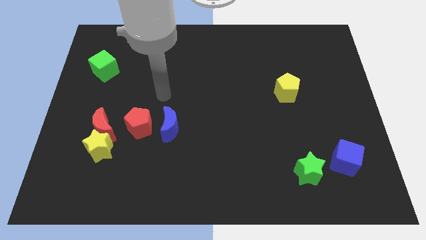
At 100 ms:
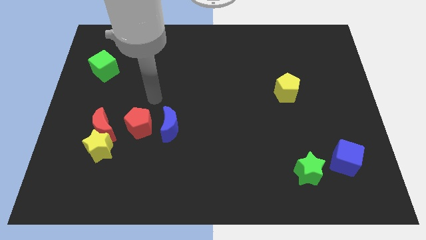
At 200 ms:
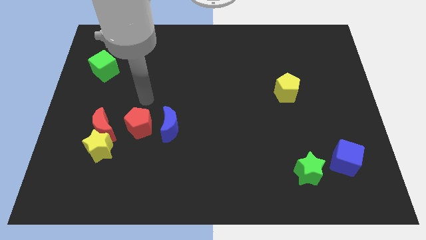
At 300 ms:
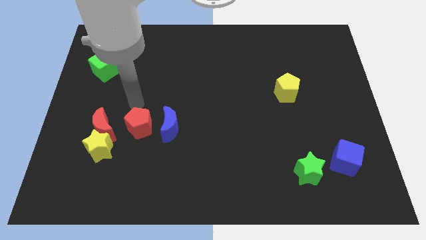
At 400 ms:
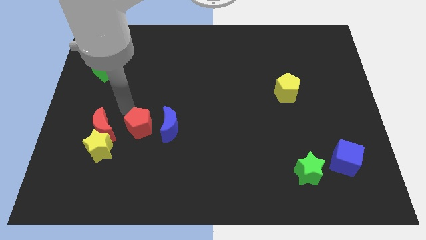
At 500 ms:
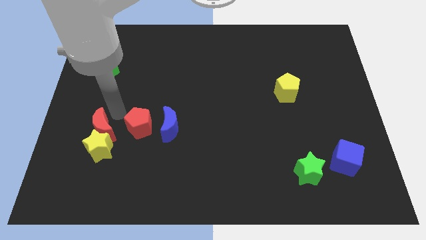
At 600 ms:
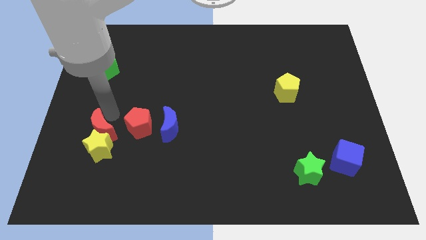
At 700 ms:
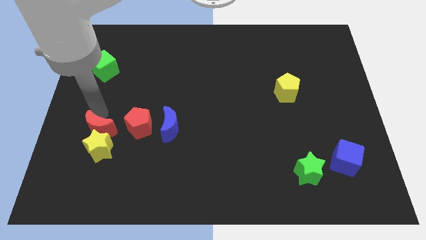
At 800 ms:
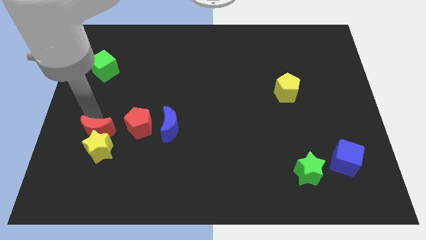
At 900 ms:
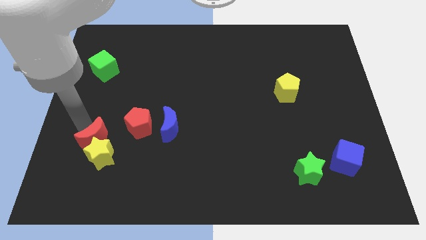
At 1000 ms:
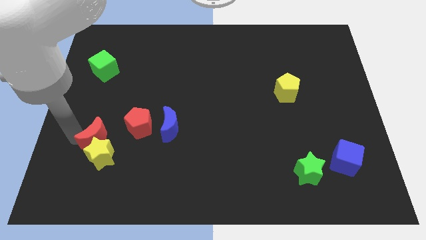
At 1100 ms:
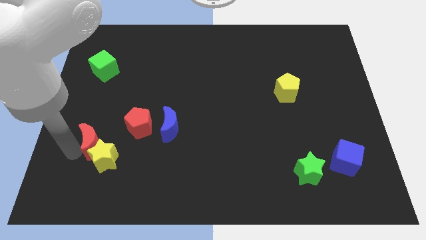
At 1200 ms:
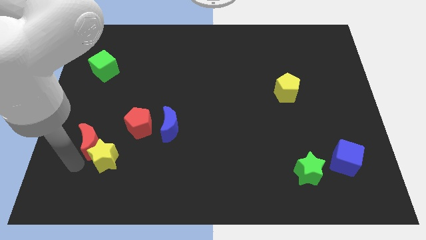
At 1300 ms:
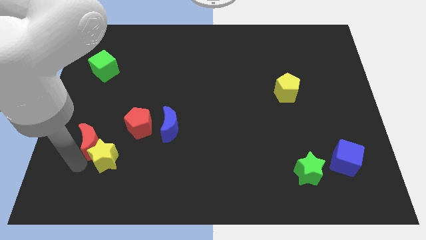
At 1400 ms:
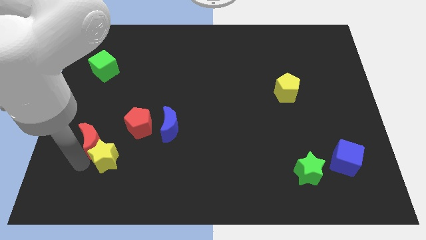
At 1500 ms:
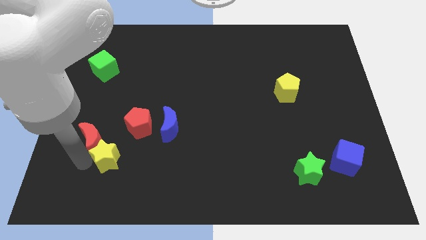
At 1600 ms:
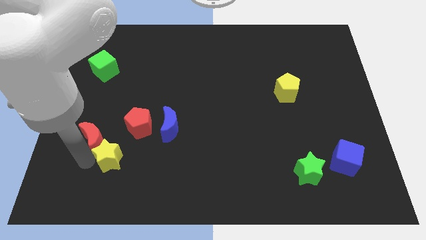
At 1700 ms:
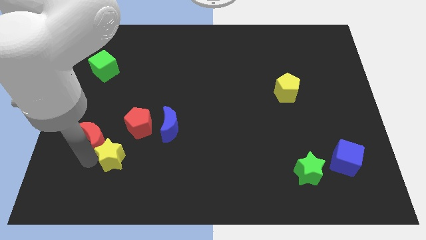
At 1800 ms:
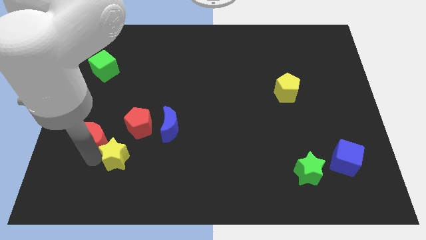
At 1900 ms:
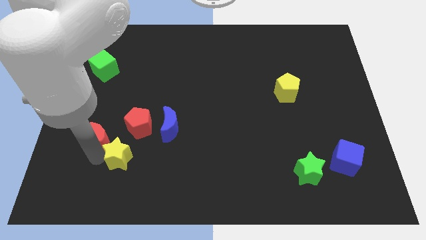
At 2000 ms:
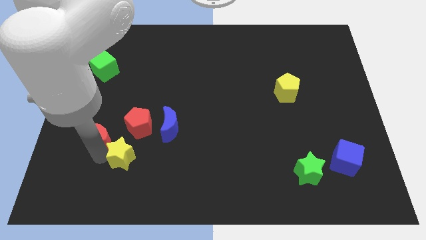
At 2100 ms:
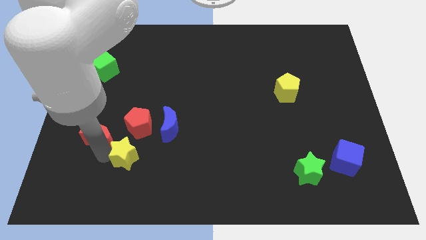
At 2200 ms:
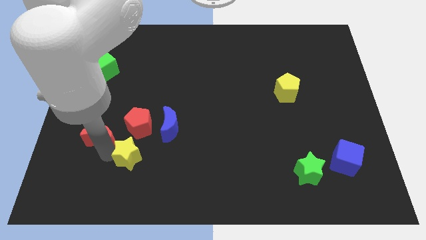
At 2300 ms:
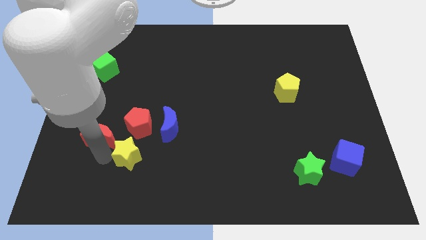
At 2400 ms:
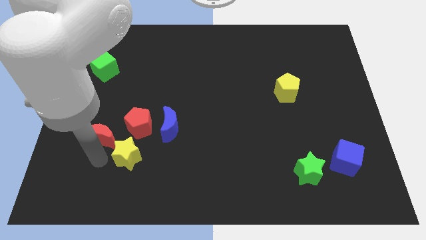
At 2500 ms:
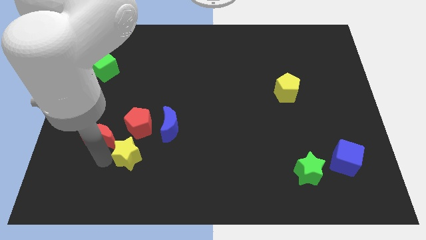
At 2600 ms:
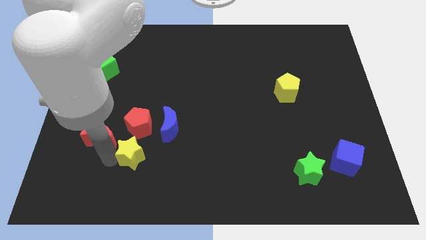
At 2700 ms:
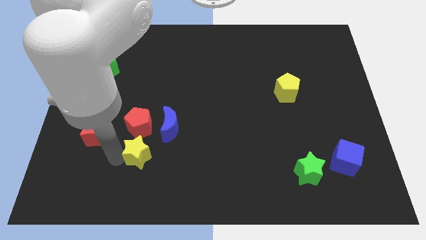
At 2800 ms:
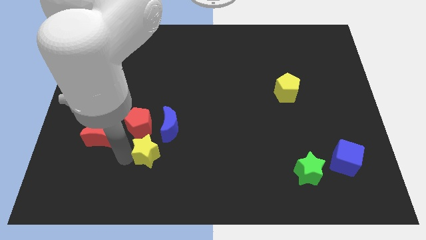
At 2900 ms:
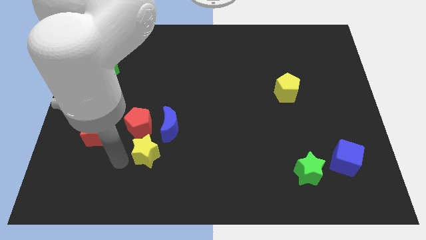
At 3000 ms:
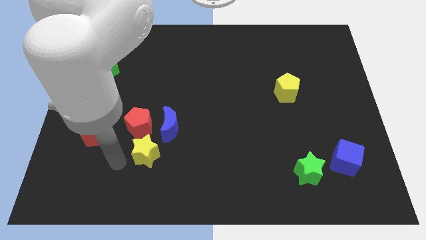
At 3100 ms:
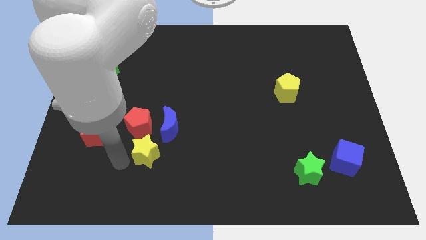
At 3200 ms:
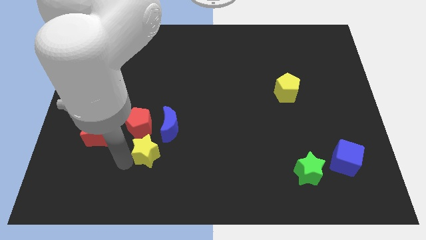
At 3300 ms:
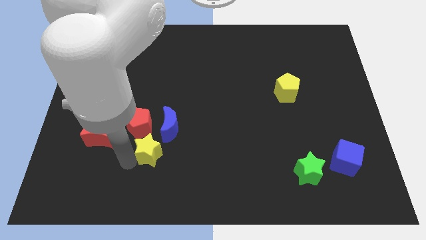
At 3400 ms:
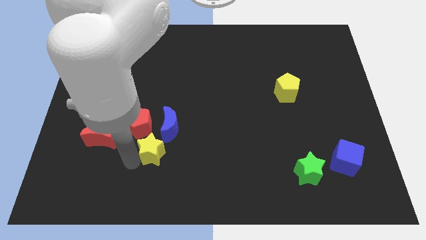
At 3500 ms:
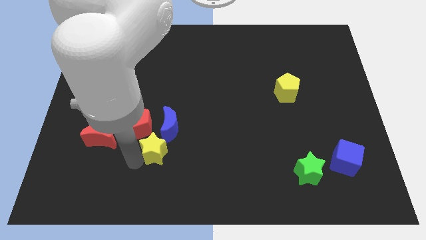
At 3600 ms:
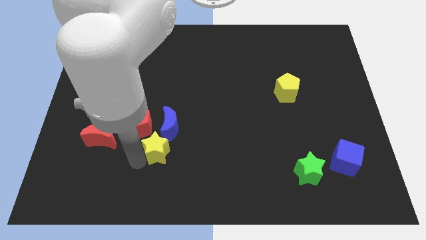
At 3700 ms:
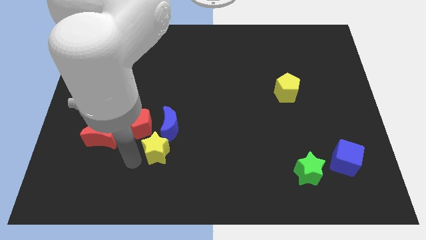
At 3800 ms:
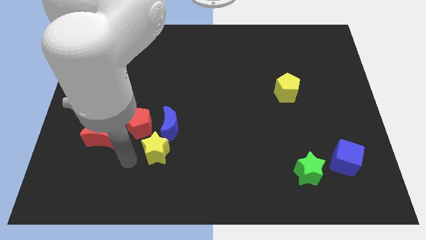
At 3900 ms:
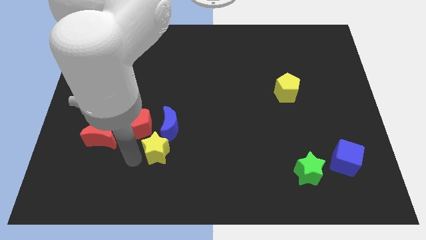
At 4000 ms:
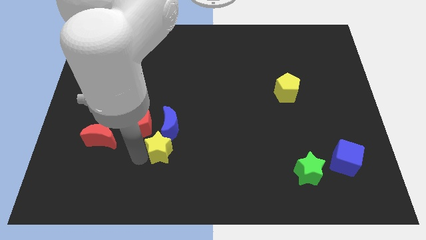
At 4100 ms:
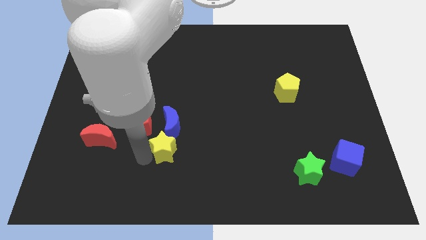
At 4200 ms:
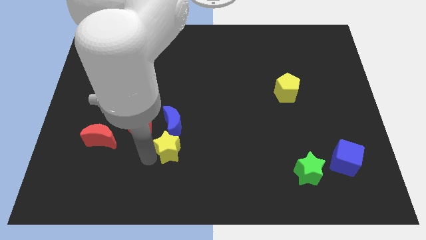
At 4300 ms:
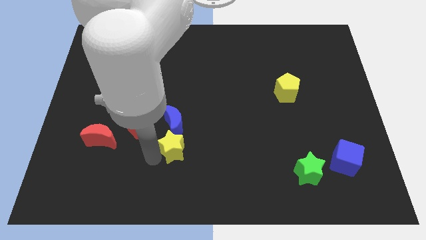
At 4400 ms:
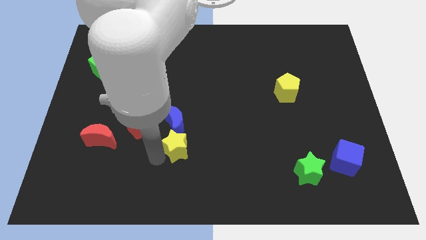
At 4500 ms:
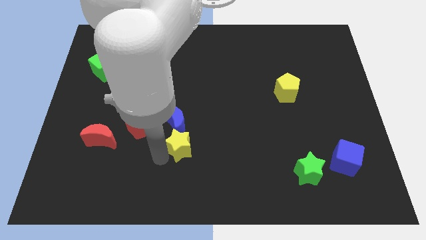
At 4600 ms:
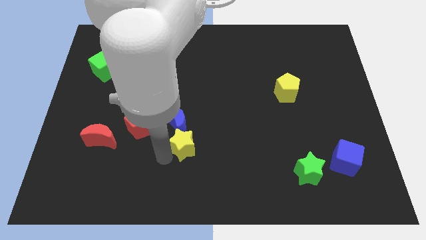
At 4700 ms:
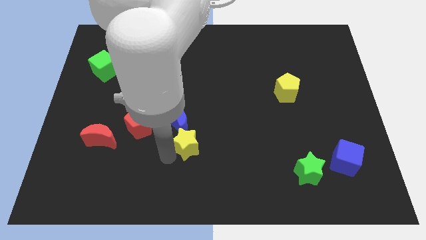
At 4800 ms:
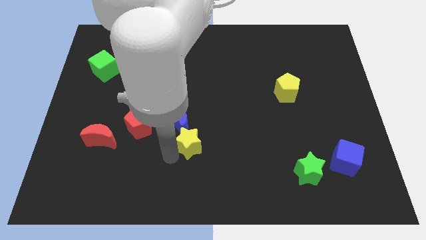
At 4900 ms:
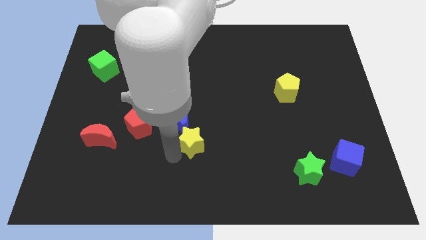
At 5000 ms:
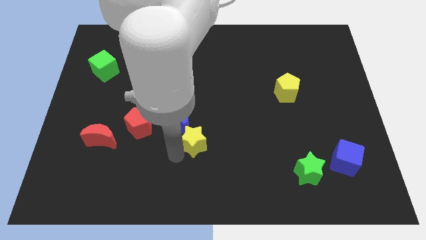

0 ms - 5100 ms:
move the yellow star to the middle

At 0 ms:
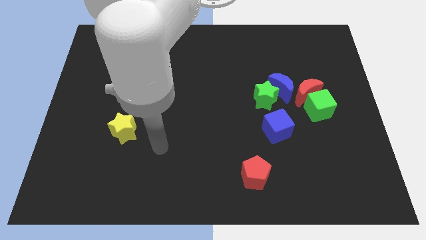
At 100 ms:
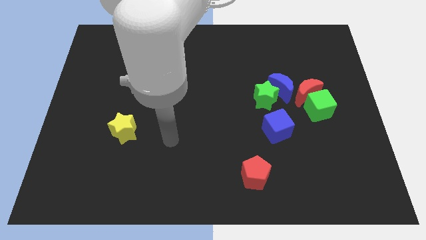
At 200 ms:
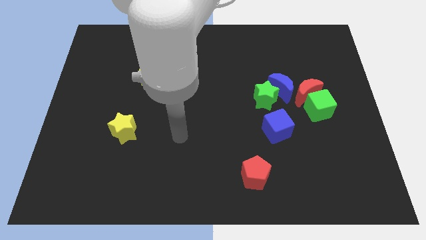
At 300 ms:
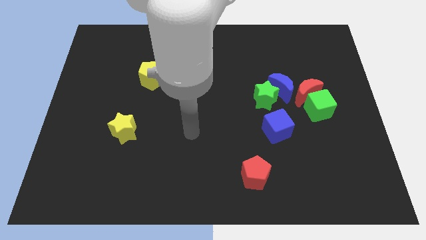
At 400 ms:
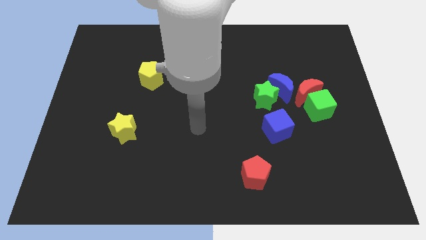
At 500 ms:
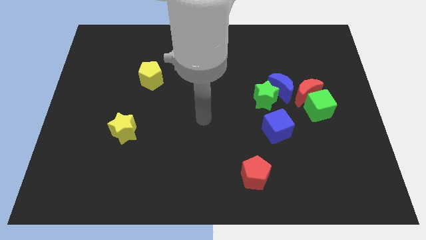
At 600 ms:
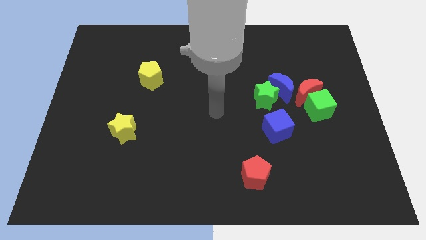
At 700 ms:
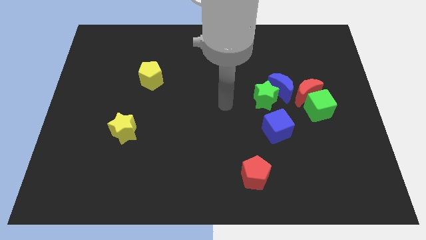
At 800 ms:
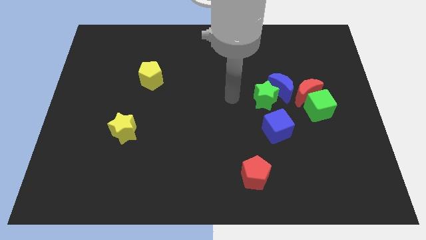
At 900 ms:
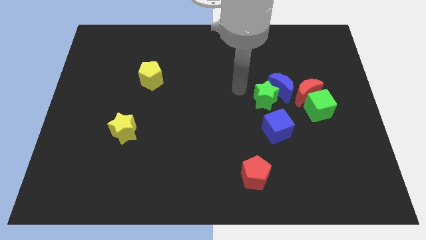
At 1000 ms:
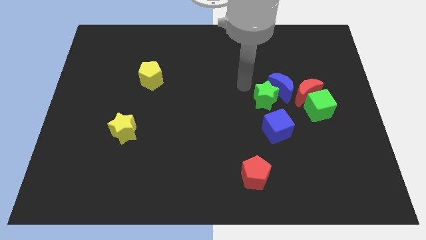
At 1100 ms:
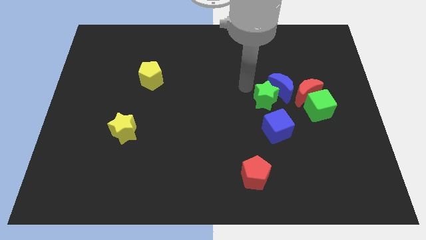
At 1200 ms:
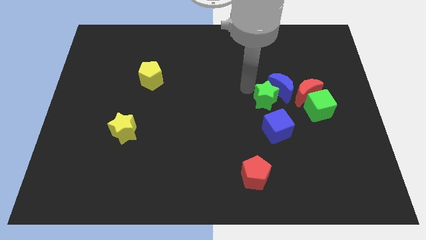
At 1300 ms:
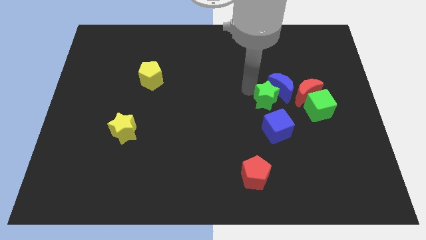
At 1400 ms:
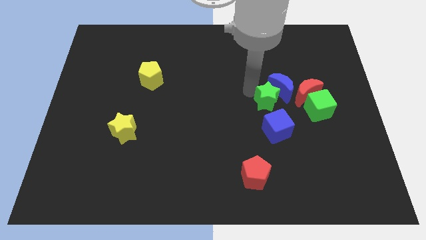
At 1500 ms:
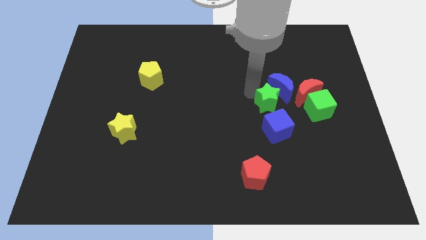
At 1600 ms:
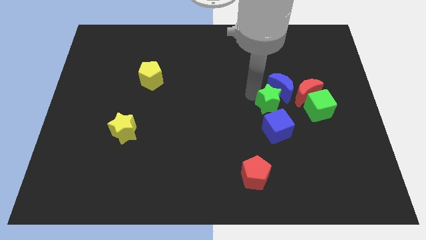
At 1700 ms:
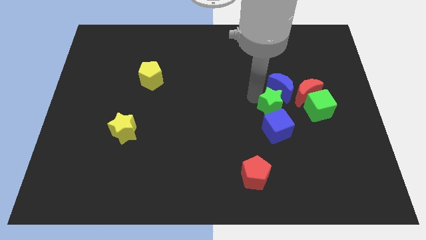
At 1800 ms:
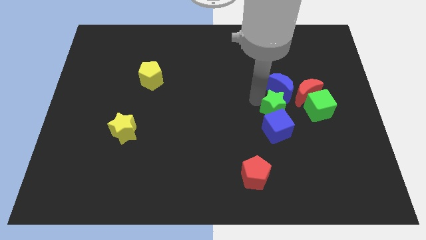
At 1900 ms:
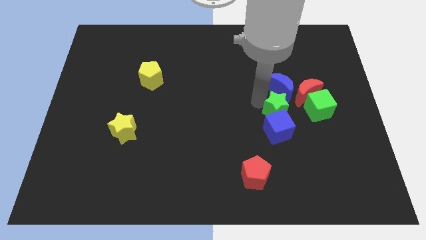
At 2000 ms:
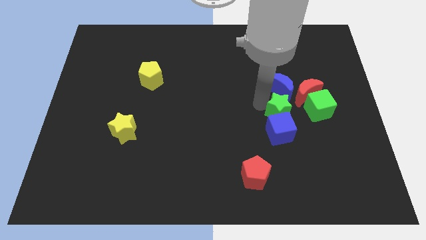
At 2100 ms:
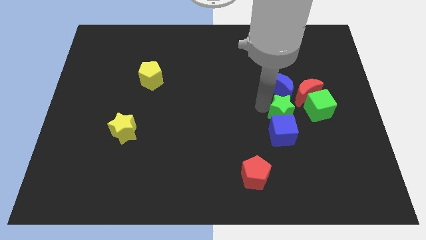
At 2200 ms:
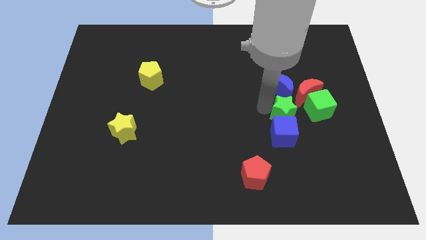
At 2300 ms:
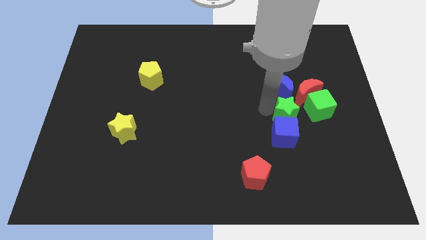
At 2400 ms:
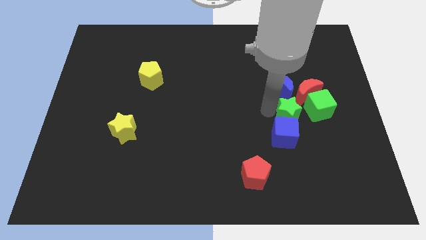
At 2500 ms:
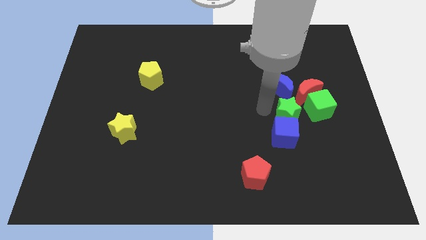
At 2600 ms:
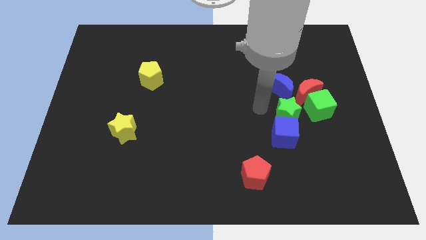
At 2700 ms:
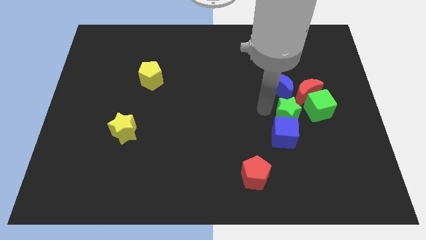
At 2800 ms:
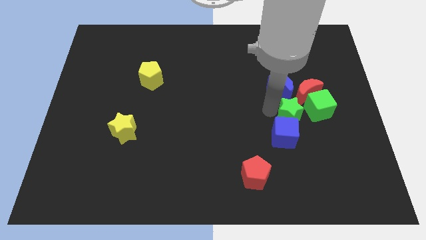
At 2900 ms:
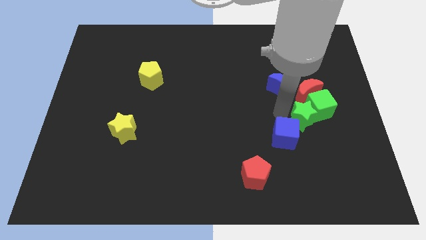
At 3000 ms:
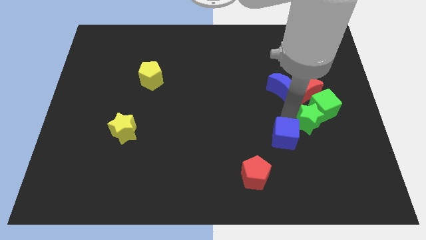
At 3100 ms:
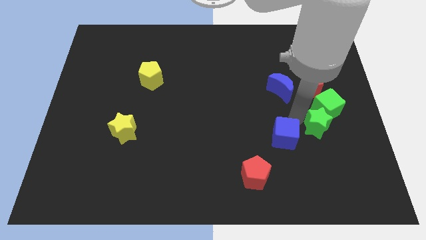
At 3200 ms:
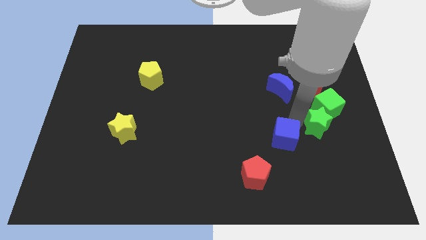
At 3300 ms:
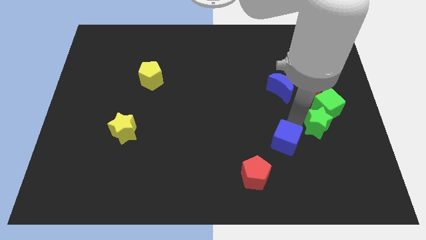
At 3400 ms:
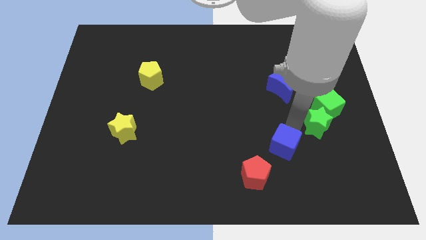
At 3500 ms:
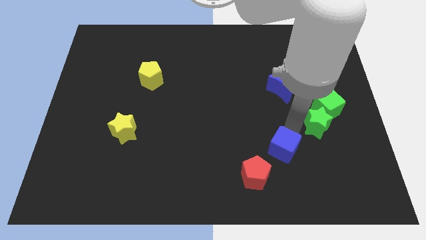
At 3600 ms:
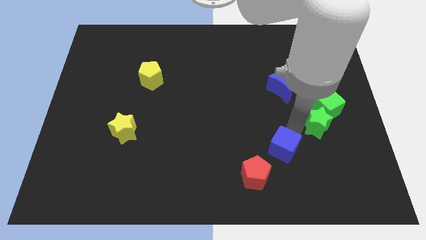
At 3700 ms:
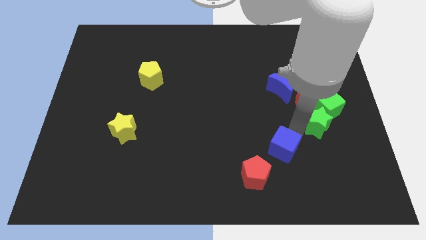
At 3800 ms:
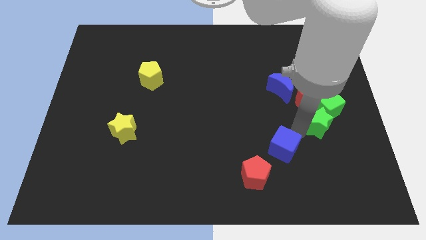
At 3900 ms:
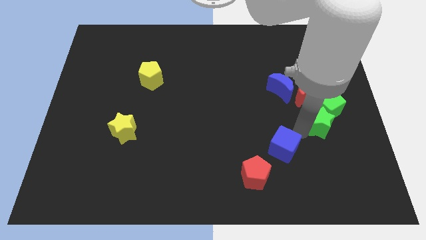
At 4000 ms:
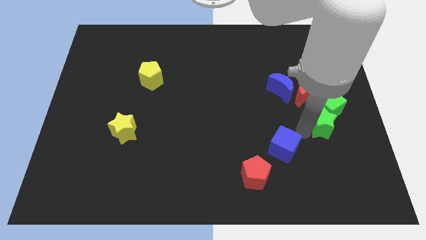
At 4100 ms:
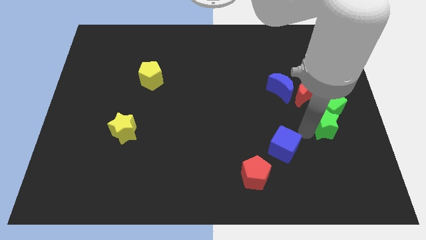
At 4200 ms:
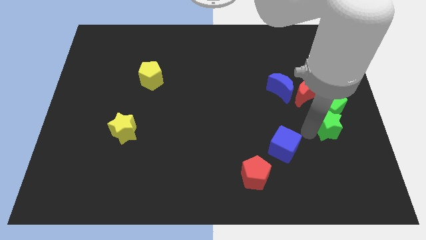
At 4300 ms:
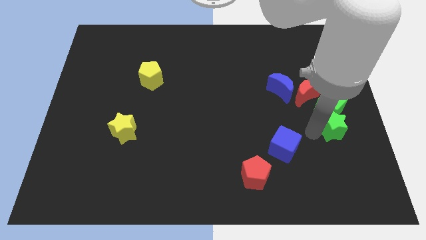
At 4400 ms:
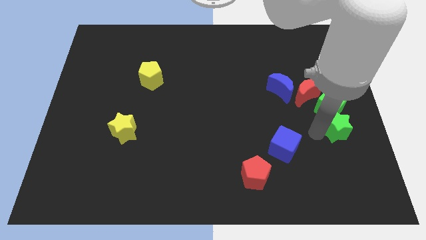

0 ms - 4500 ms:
slide the green star to the right side of the board
